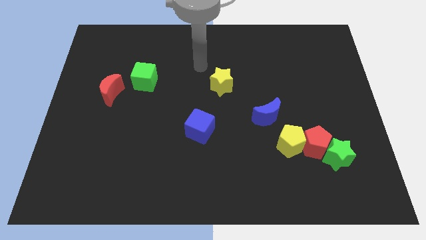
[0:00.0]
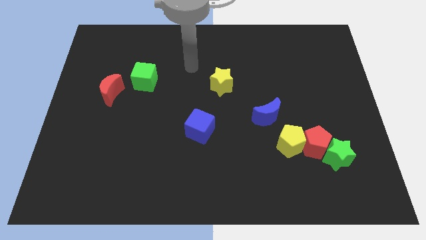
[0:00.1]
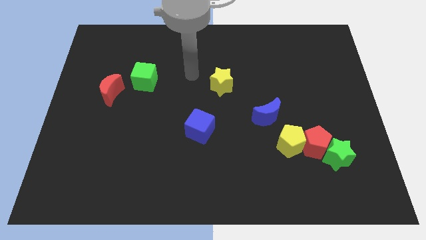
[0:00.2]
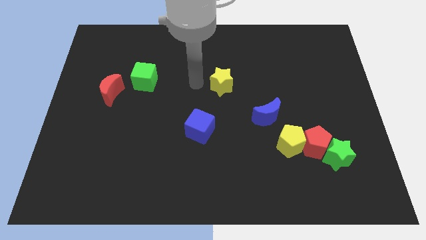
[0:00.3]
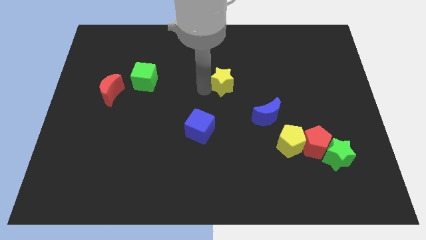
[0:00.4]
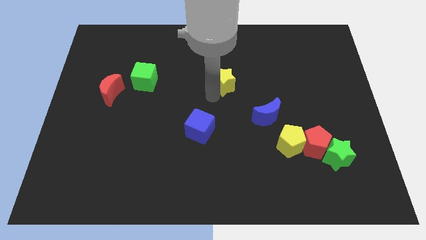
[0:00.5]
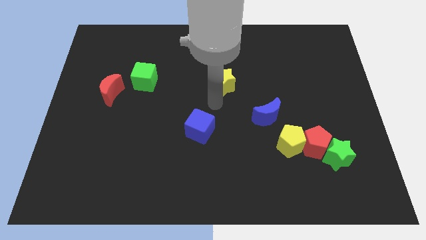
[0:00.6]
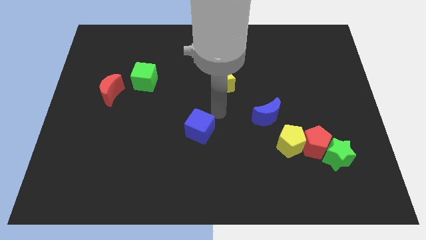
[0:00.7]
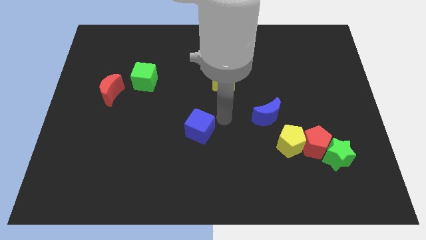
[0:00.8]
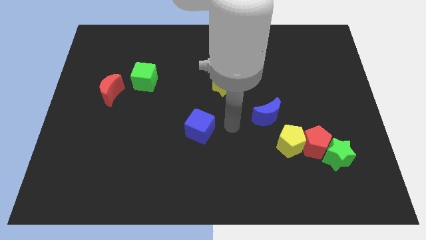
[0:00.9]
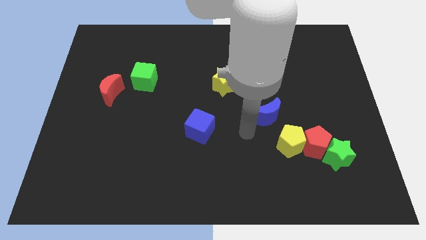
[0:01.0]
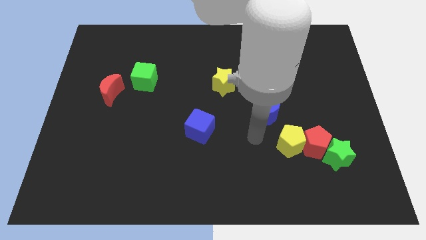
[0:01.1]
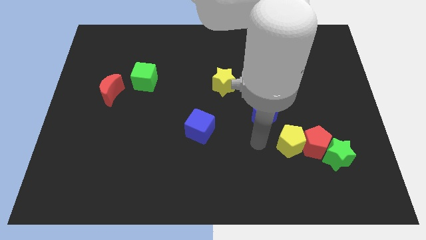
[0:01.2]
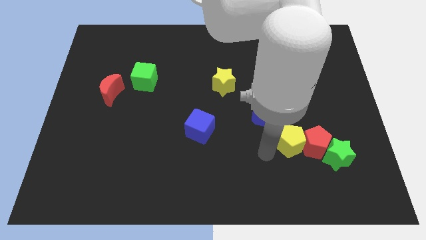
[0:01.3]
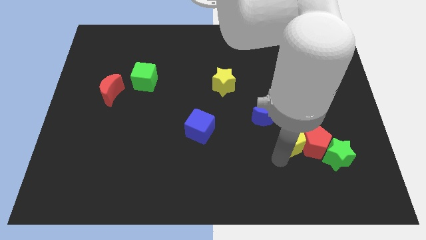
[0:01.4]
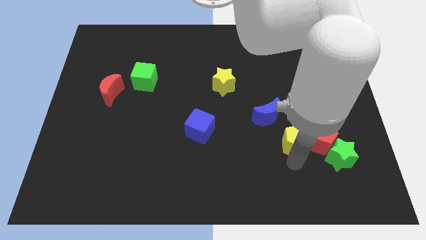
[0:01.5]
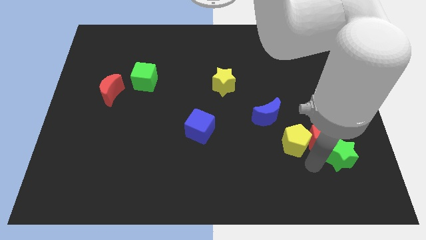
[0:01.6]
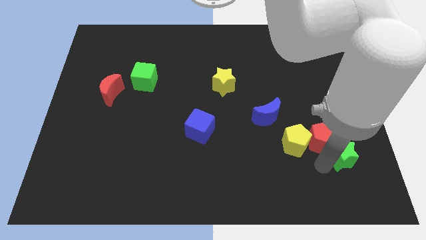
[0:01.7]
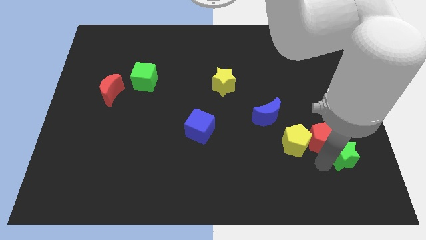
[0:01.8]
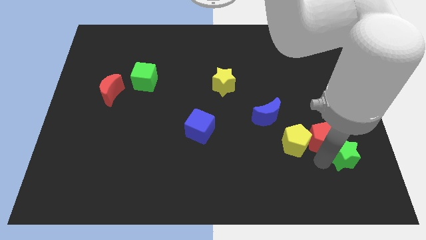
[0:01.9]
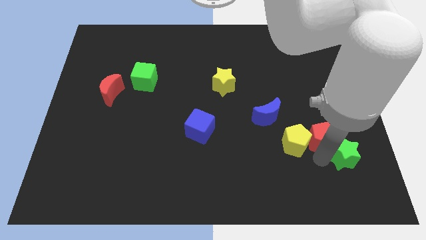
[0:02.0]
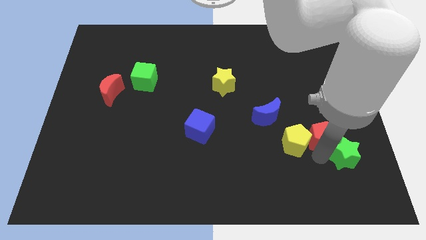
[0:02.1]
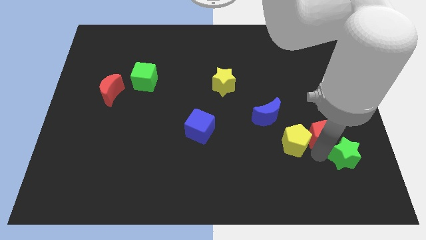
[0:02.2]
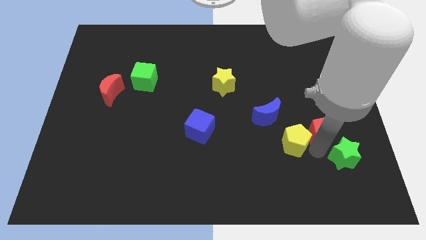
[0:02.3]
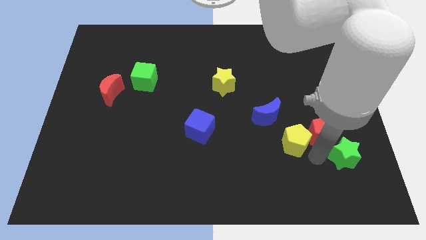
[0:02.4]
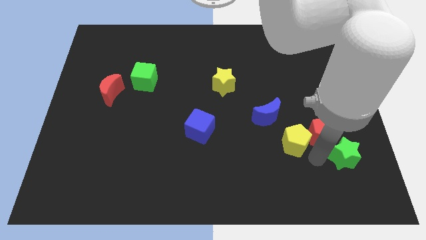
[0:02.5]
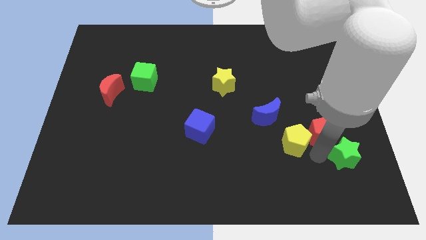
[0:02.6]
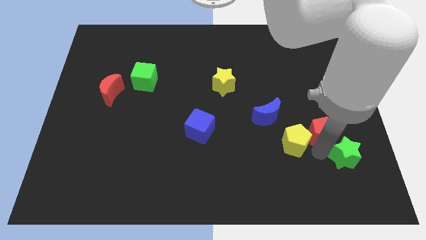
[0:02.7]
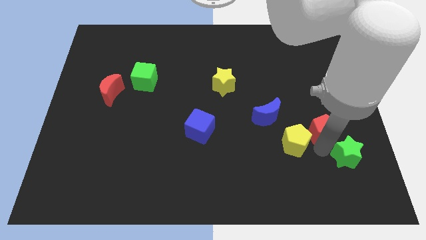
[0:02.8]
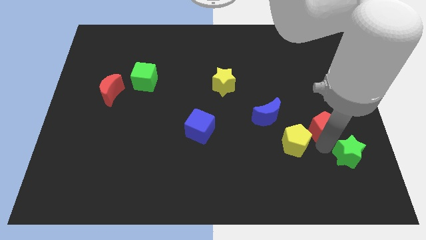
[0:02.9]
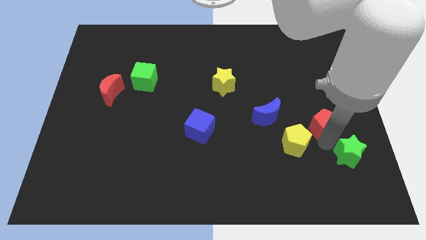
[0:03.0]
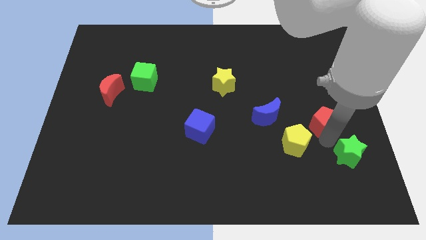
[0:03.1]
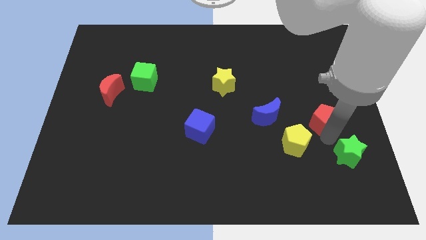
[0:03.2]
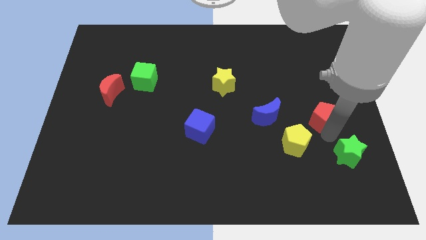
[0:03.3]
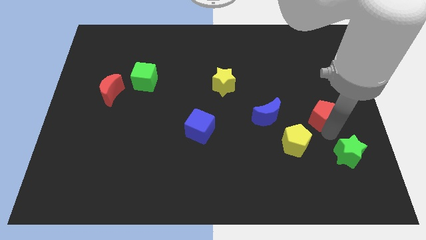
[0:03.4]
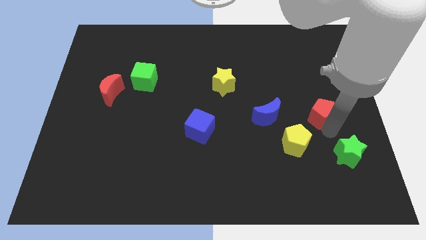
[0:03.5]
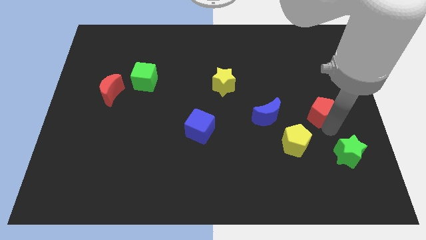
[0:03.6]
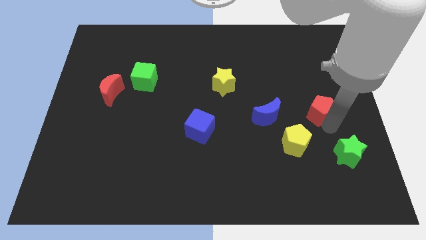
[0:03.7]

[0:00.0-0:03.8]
pull the red pentagon apart from the green star and yellow pentagon

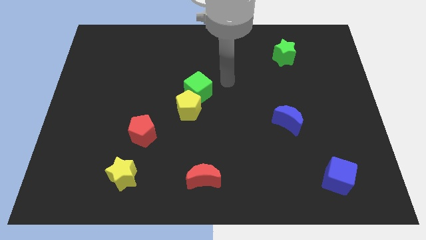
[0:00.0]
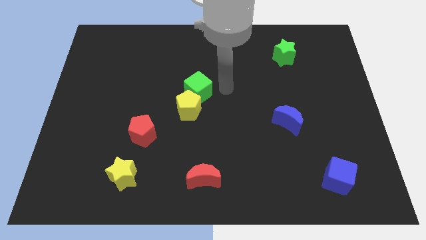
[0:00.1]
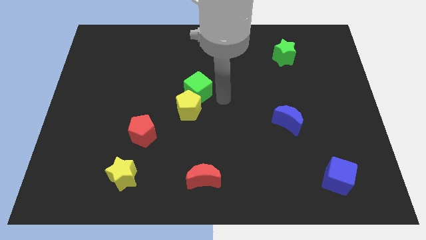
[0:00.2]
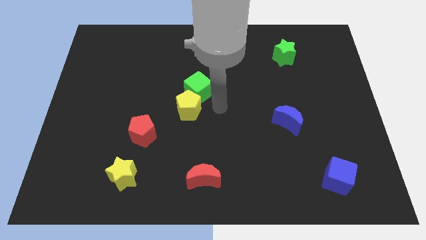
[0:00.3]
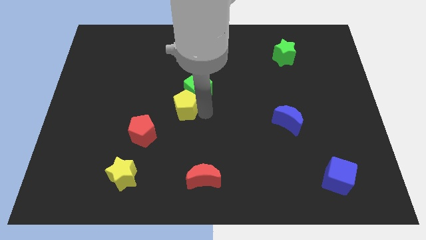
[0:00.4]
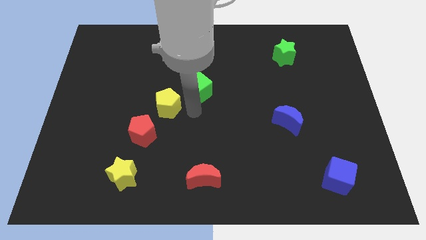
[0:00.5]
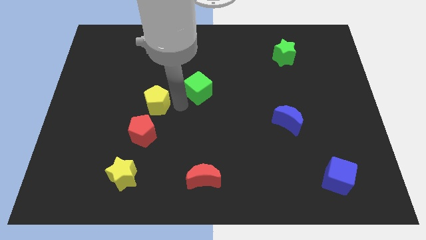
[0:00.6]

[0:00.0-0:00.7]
separate the green cube from the yellow pentagon

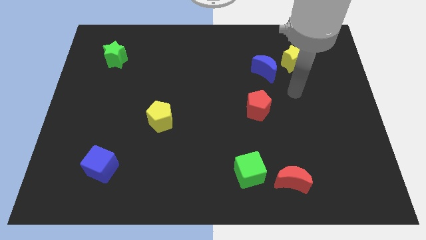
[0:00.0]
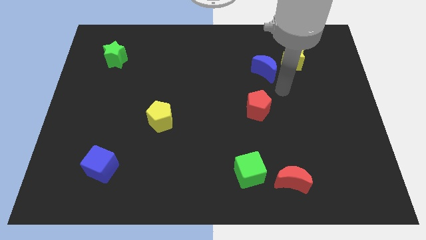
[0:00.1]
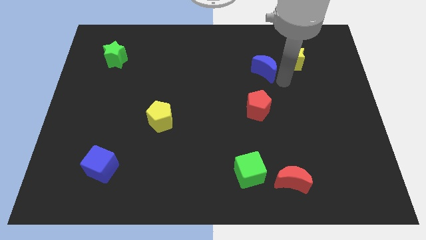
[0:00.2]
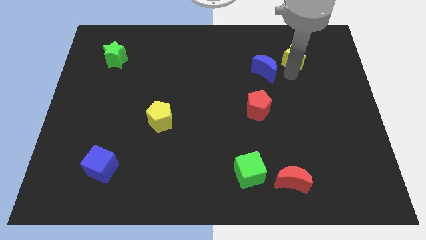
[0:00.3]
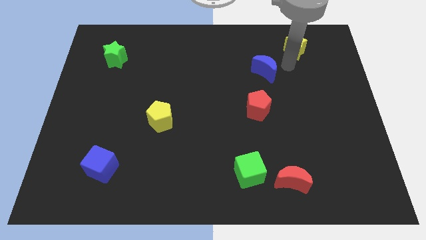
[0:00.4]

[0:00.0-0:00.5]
separate the blue moon from the yellow star

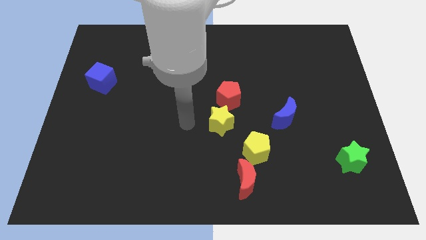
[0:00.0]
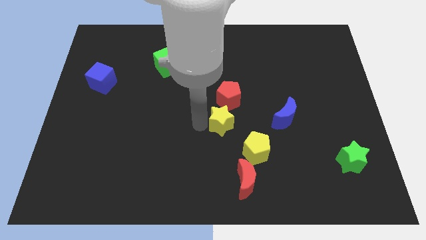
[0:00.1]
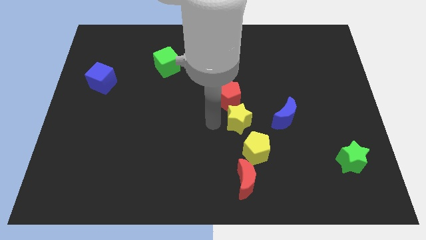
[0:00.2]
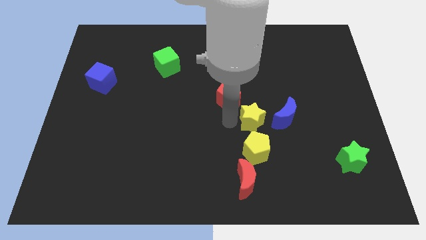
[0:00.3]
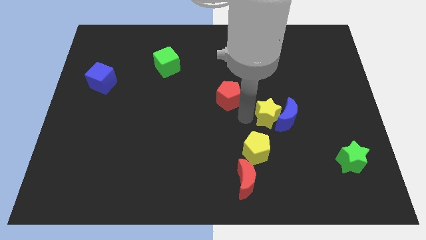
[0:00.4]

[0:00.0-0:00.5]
separate the red pentagon from the yellow star

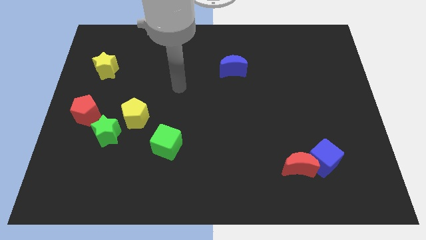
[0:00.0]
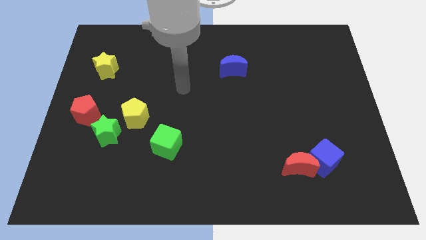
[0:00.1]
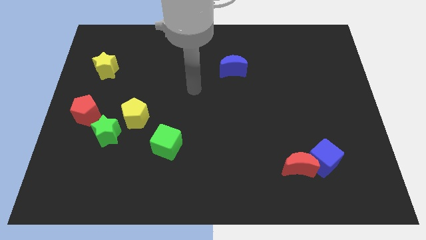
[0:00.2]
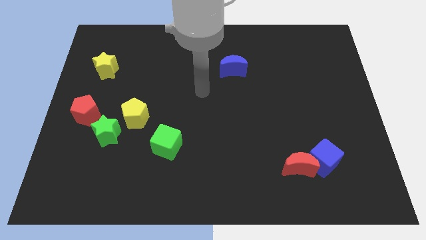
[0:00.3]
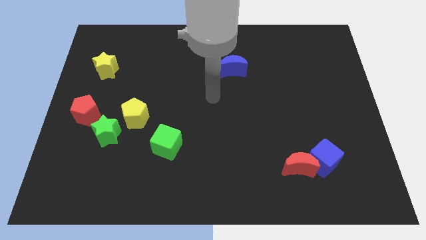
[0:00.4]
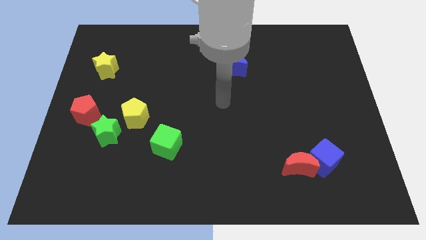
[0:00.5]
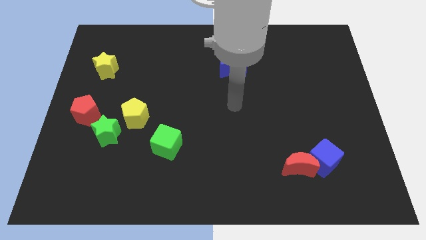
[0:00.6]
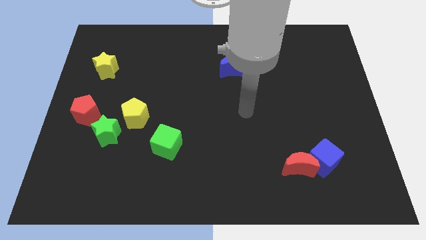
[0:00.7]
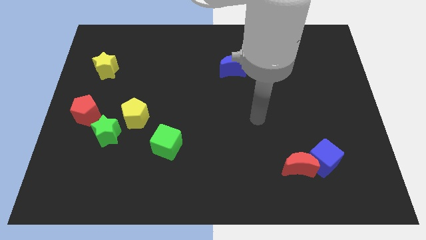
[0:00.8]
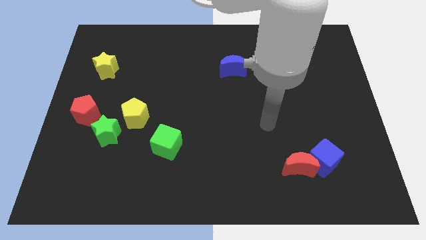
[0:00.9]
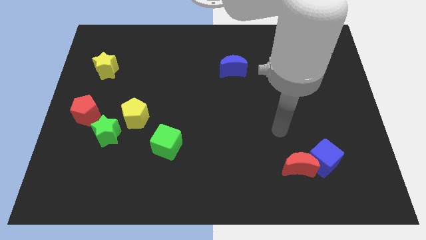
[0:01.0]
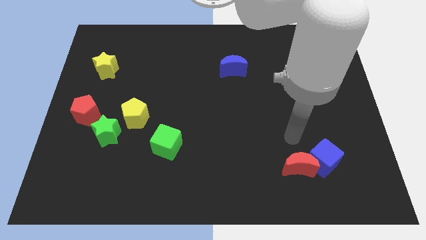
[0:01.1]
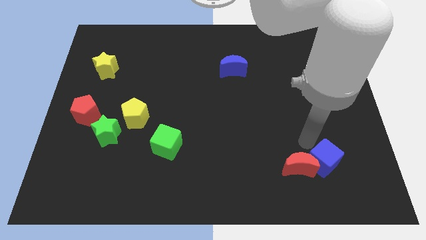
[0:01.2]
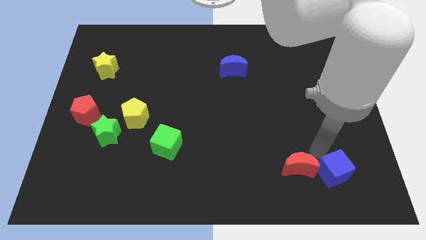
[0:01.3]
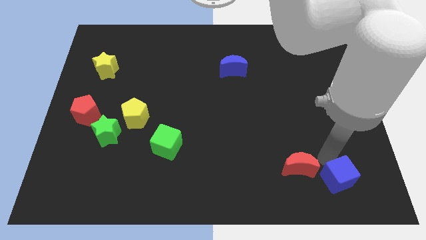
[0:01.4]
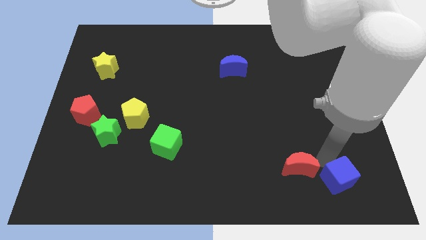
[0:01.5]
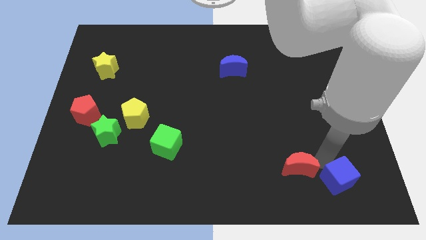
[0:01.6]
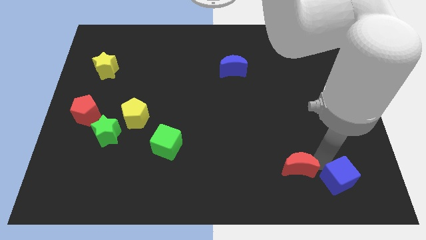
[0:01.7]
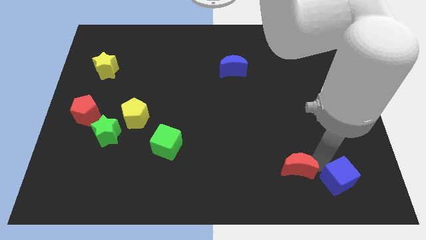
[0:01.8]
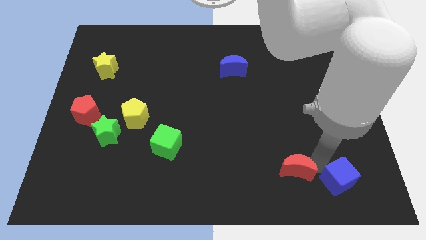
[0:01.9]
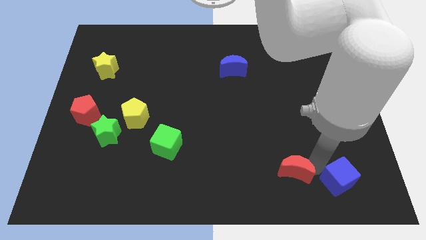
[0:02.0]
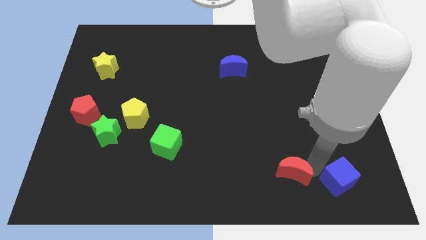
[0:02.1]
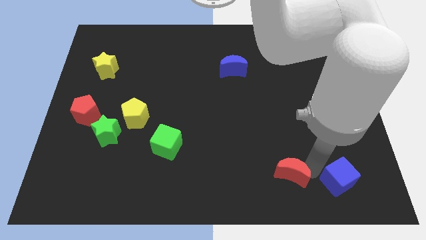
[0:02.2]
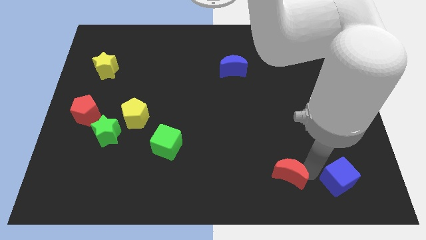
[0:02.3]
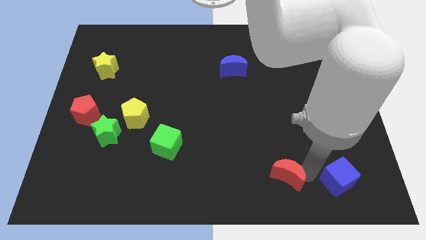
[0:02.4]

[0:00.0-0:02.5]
move the red moon away from the blue cube

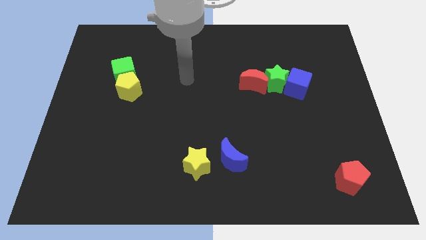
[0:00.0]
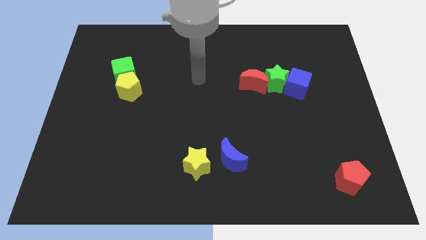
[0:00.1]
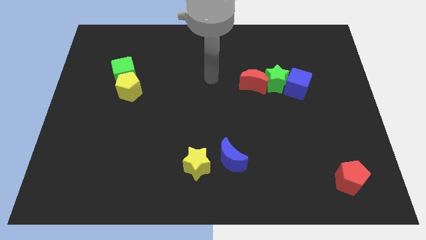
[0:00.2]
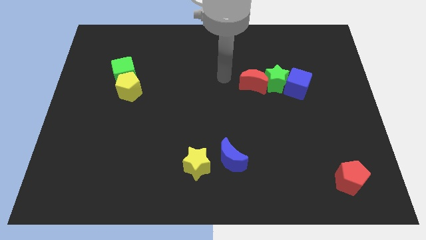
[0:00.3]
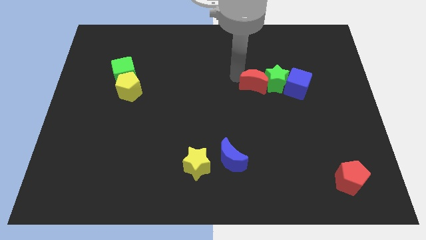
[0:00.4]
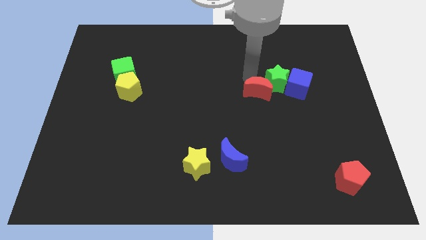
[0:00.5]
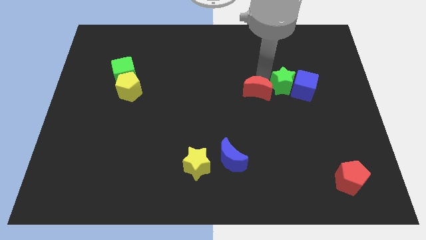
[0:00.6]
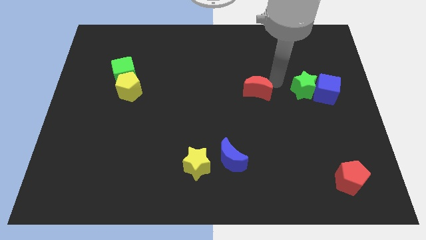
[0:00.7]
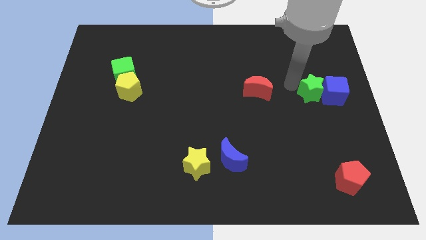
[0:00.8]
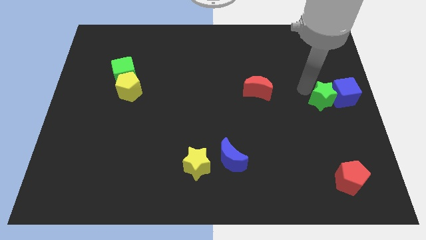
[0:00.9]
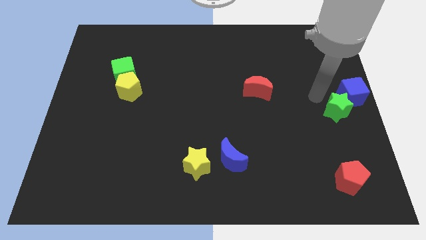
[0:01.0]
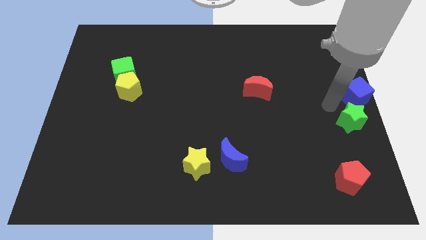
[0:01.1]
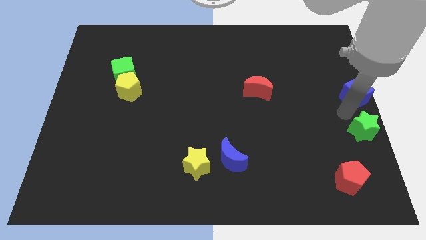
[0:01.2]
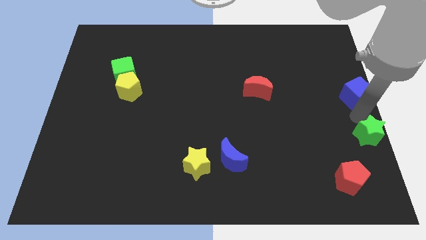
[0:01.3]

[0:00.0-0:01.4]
pull the blue cube apart from the green star
